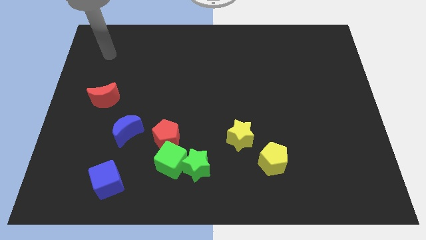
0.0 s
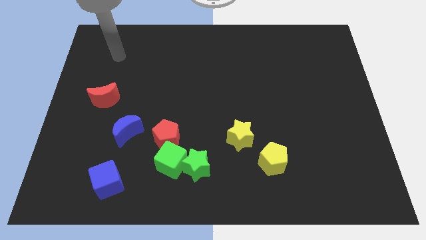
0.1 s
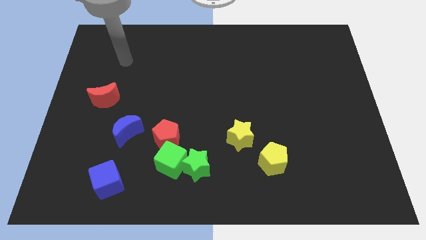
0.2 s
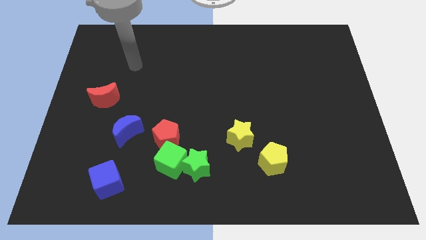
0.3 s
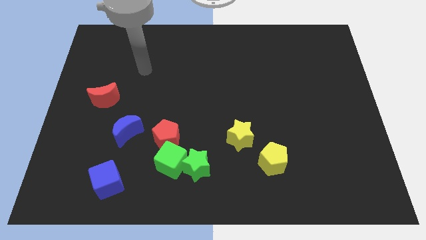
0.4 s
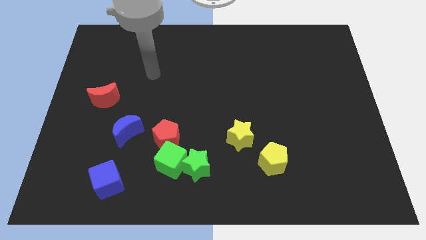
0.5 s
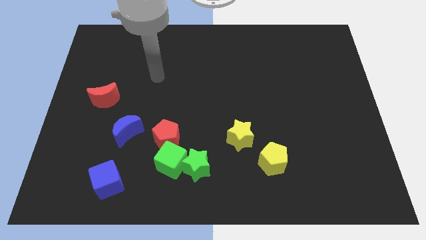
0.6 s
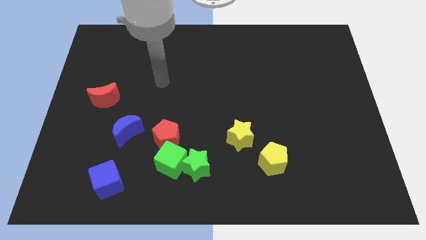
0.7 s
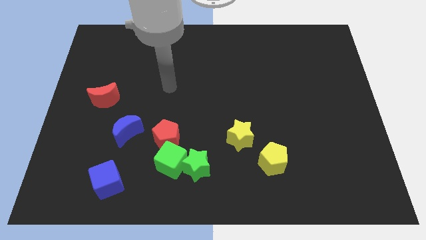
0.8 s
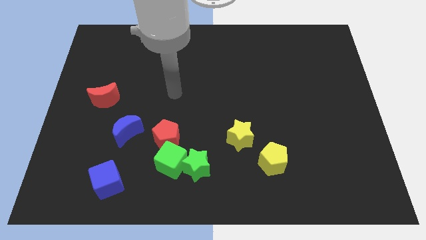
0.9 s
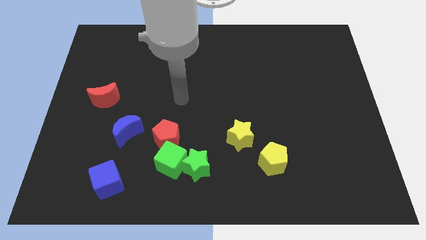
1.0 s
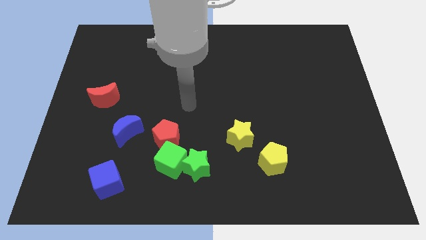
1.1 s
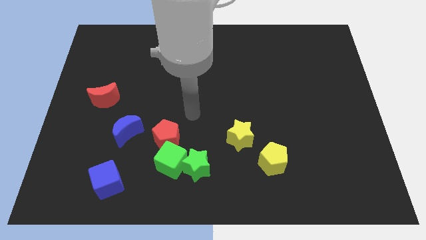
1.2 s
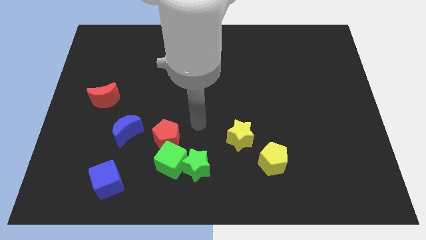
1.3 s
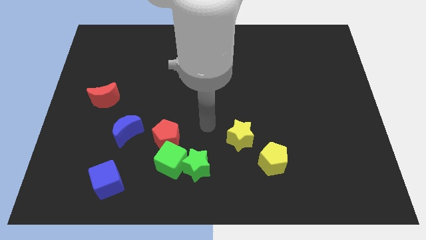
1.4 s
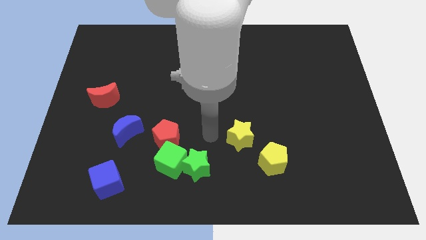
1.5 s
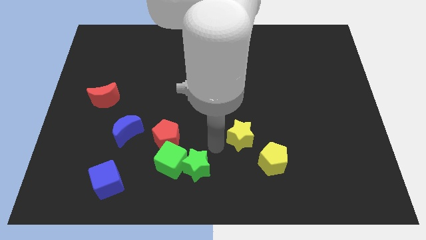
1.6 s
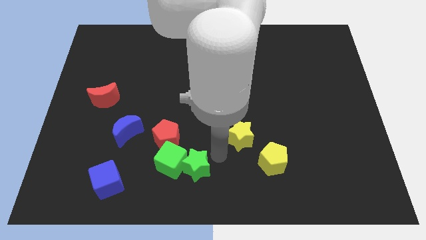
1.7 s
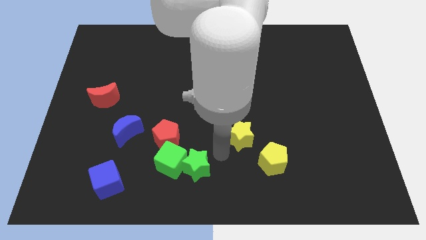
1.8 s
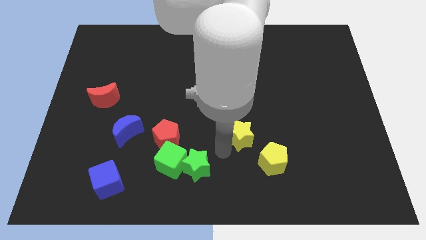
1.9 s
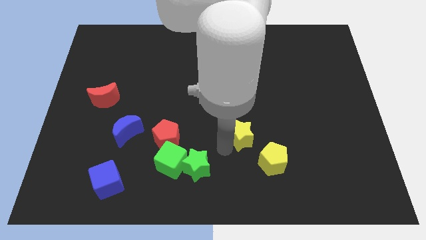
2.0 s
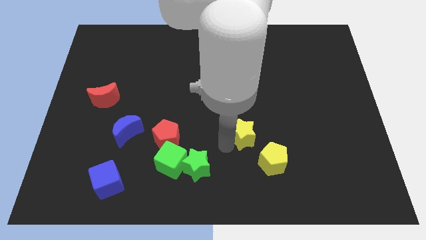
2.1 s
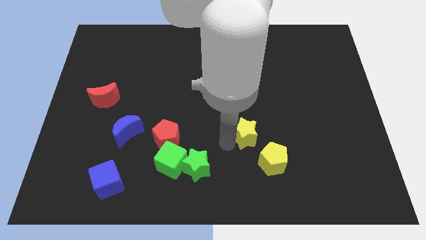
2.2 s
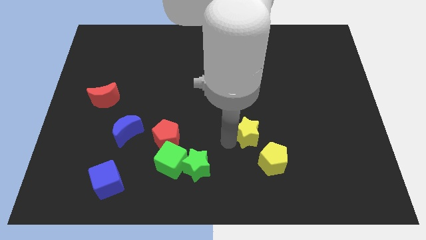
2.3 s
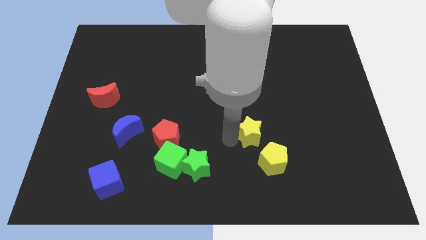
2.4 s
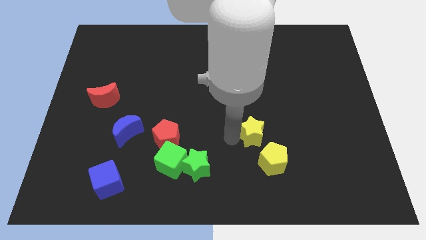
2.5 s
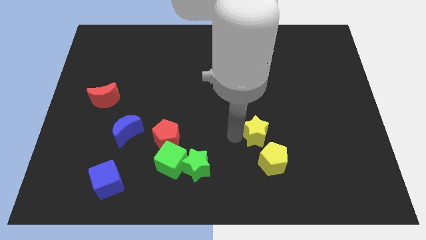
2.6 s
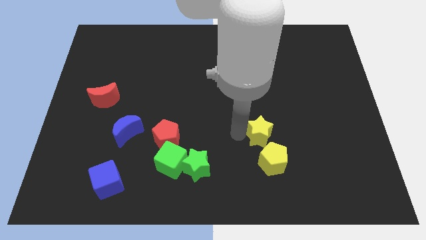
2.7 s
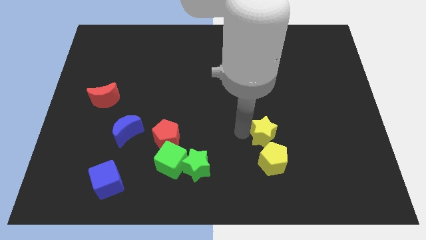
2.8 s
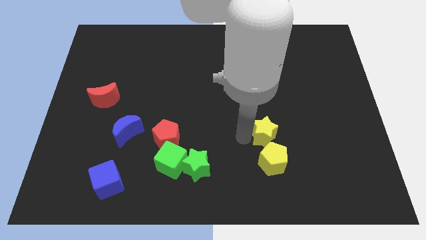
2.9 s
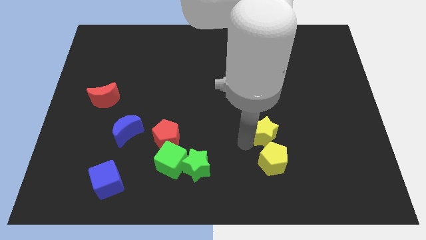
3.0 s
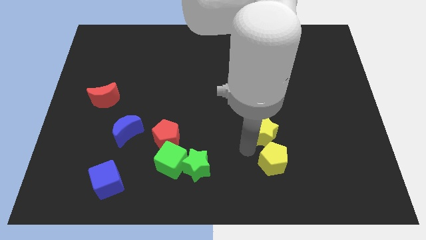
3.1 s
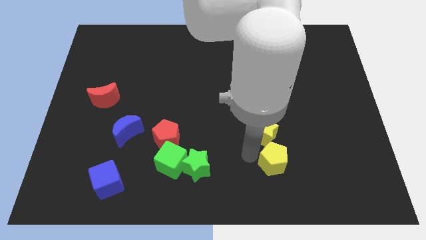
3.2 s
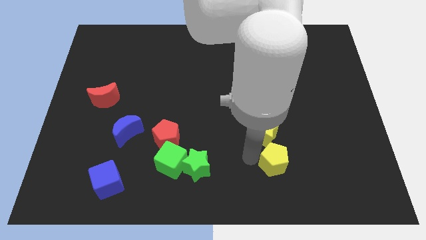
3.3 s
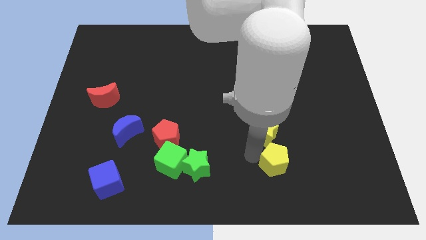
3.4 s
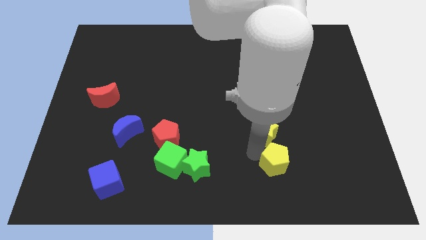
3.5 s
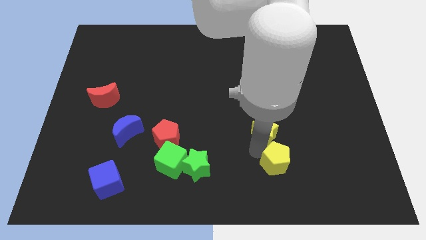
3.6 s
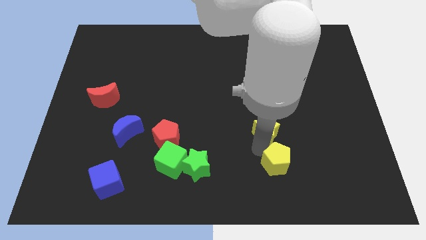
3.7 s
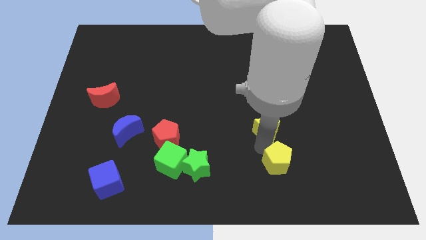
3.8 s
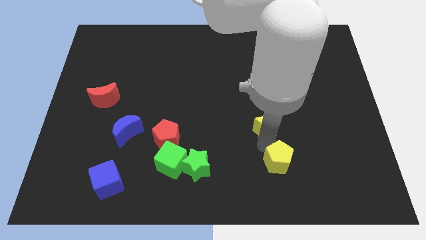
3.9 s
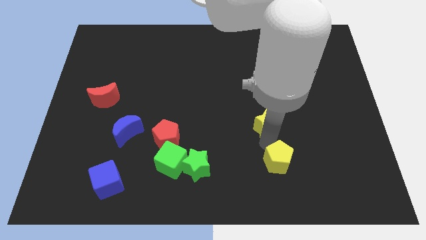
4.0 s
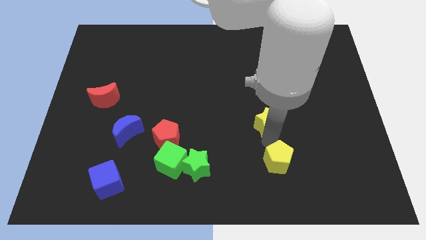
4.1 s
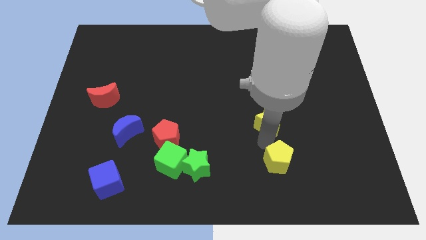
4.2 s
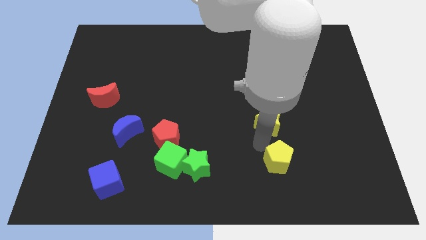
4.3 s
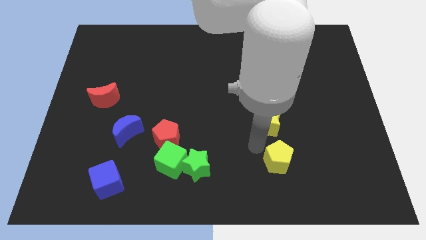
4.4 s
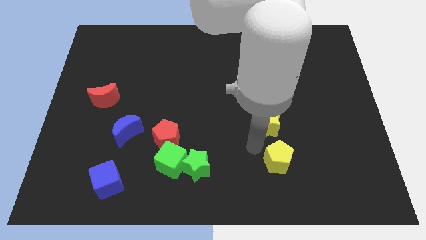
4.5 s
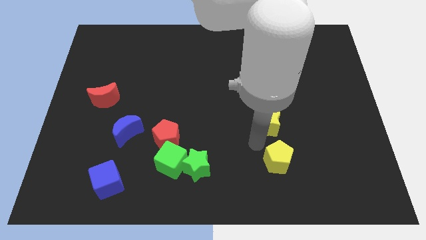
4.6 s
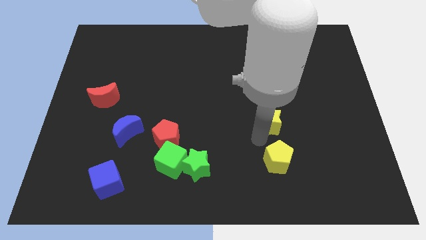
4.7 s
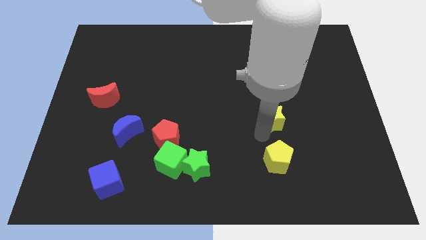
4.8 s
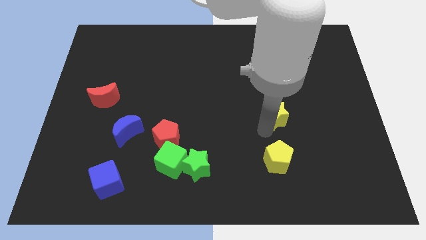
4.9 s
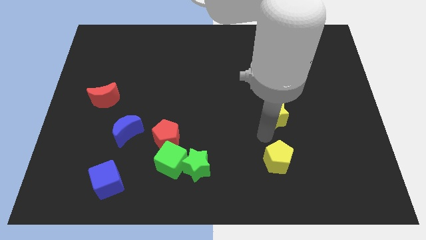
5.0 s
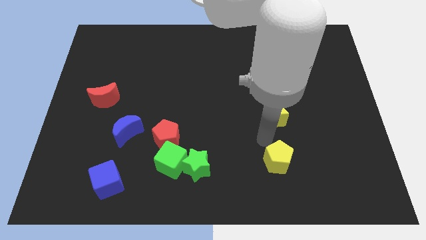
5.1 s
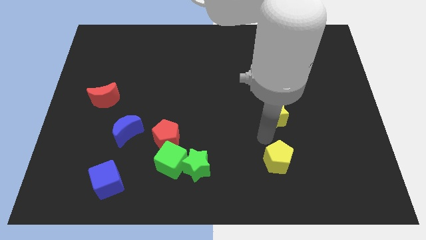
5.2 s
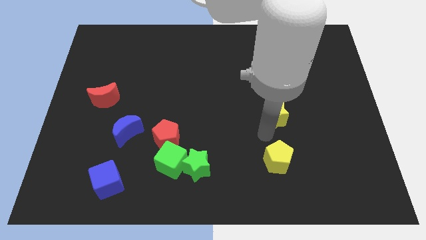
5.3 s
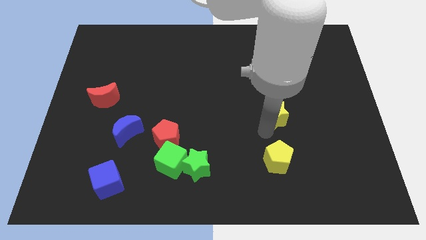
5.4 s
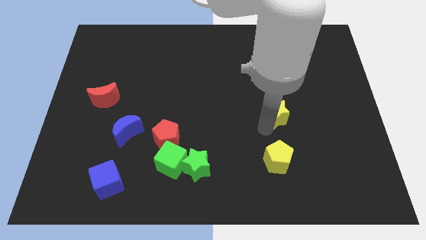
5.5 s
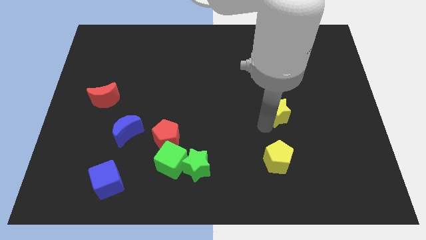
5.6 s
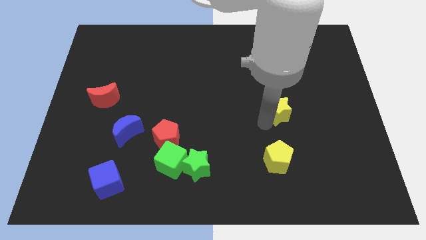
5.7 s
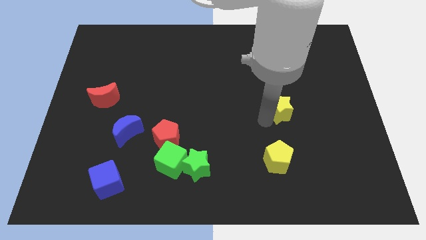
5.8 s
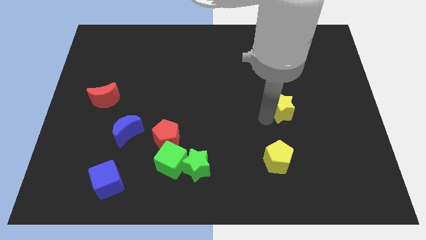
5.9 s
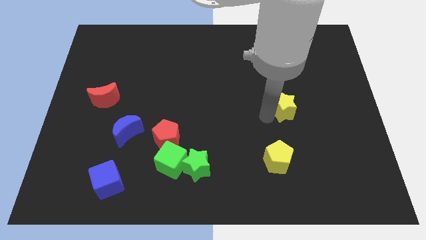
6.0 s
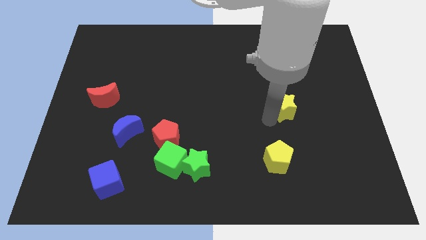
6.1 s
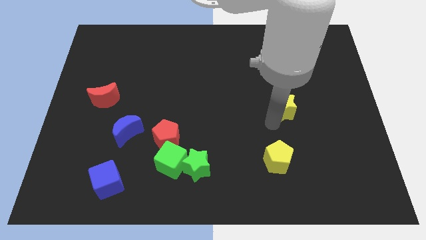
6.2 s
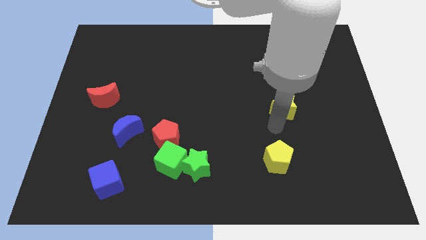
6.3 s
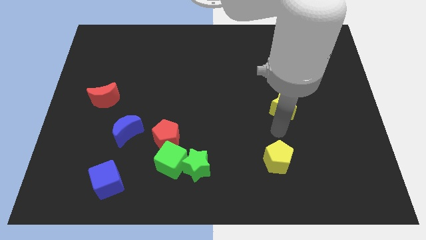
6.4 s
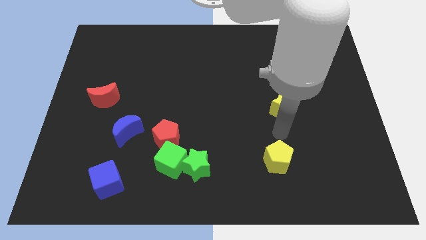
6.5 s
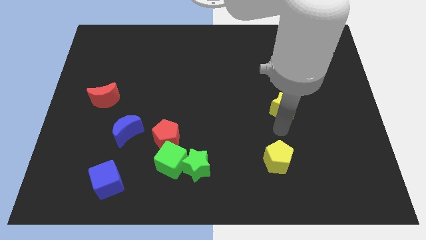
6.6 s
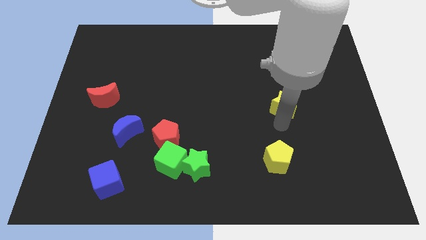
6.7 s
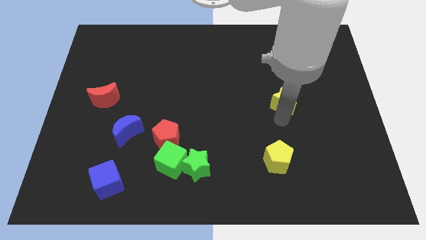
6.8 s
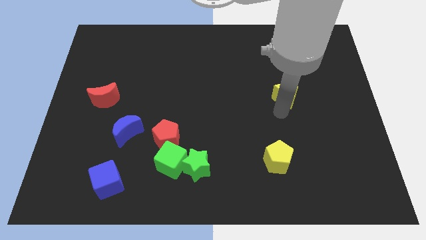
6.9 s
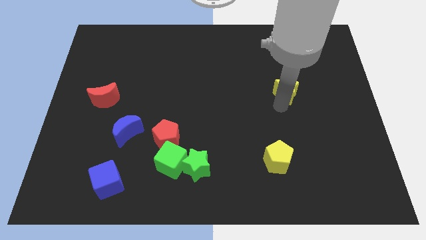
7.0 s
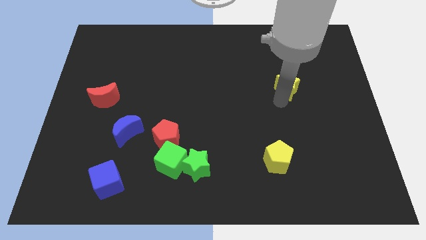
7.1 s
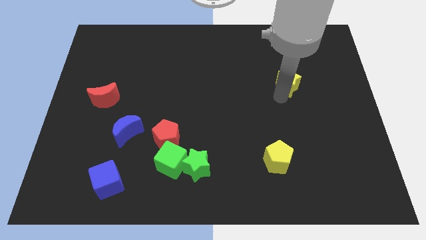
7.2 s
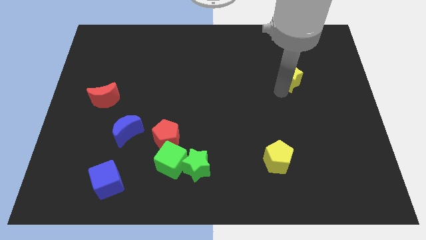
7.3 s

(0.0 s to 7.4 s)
move the yellow star upwards and right

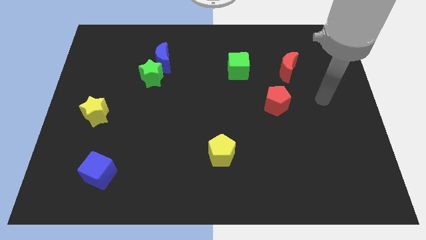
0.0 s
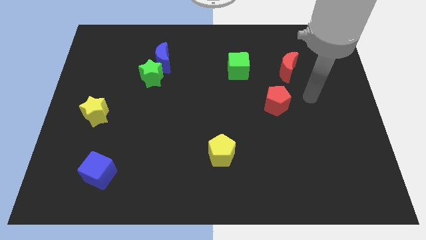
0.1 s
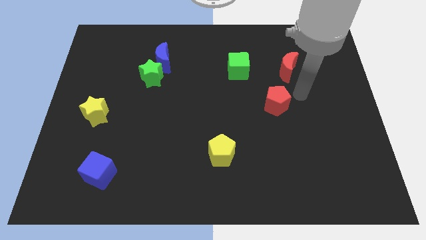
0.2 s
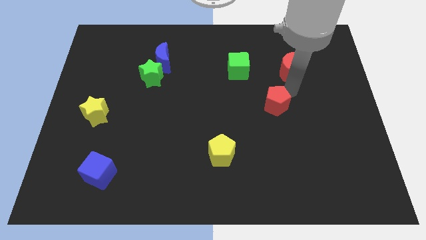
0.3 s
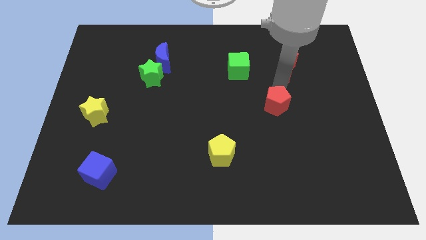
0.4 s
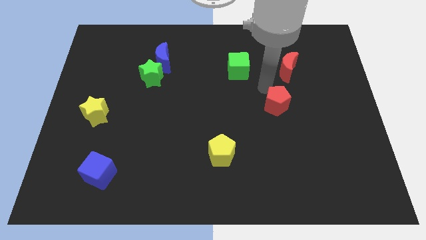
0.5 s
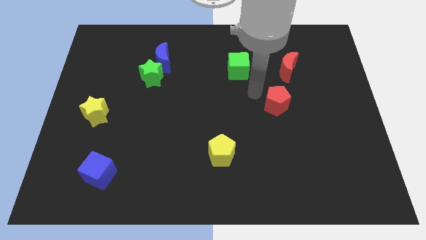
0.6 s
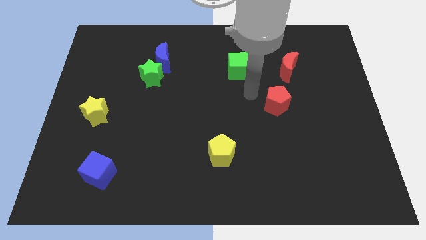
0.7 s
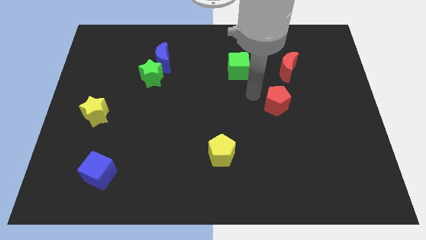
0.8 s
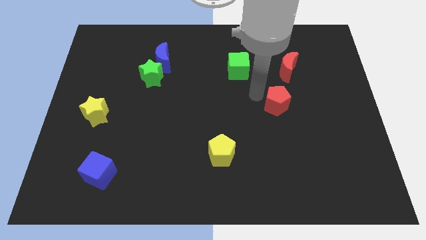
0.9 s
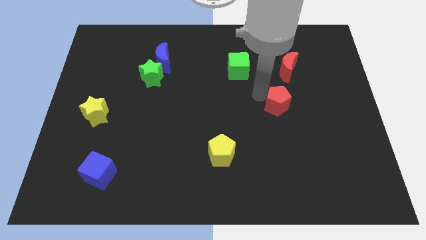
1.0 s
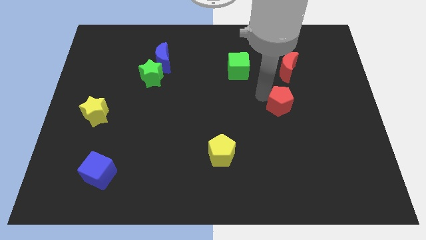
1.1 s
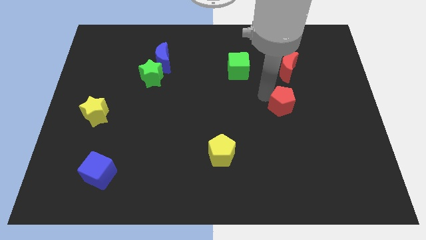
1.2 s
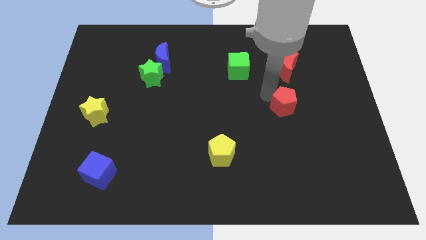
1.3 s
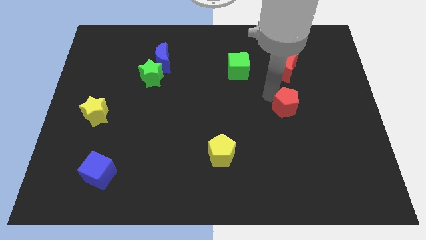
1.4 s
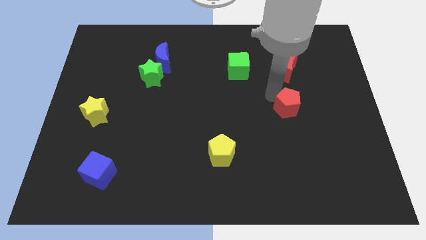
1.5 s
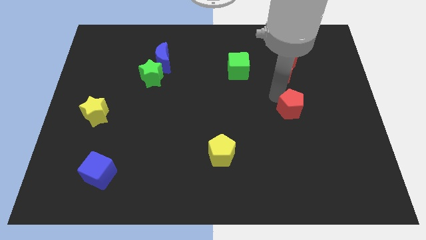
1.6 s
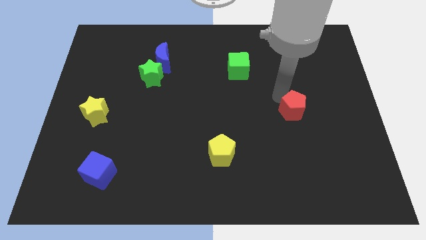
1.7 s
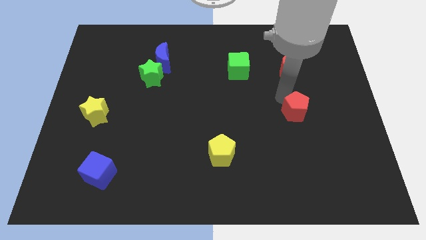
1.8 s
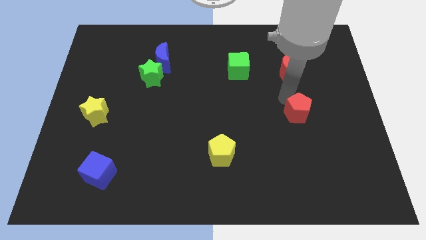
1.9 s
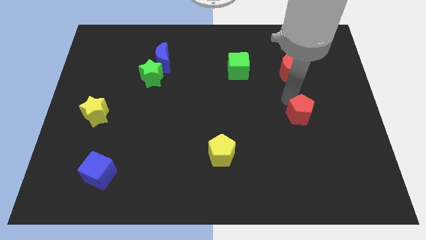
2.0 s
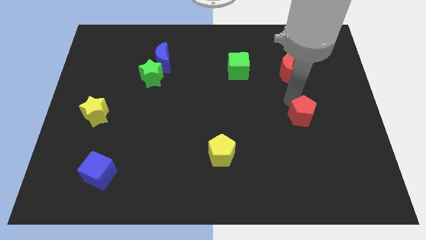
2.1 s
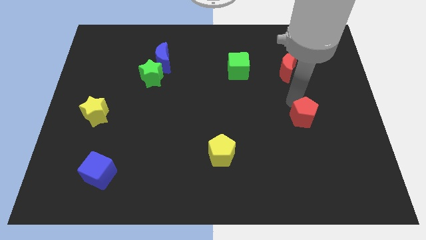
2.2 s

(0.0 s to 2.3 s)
move the red pentagon a little diagonally downwards and to the right
